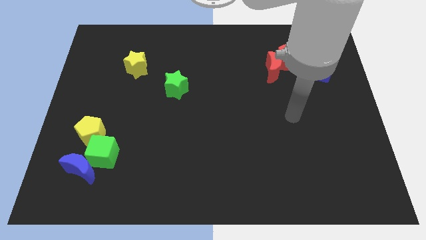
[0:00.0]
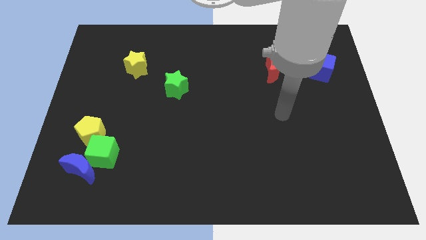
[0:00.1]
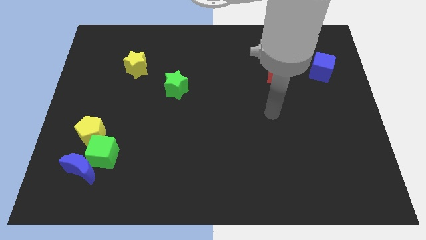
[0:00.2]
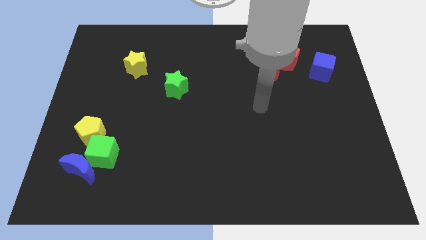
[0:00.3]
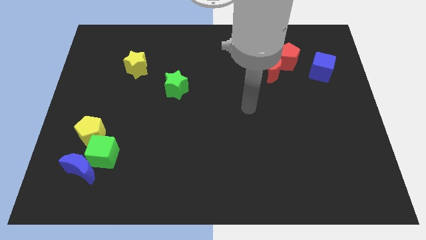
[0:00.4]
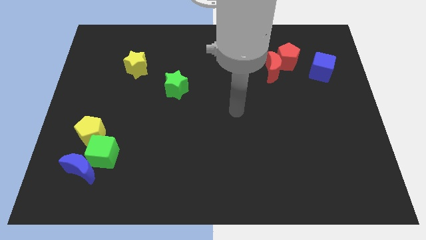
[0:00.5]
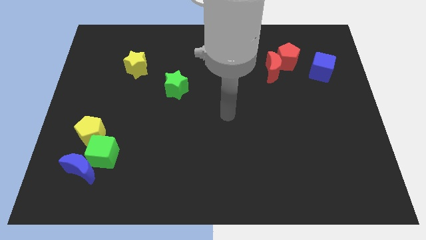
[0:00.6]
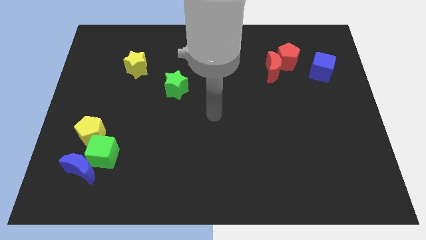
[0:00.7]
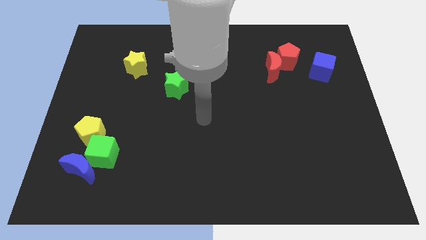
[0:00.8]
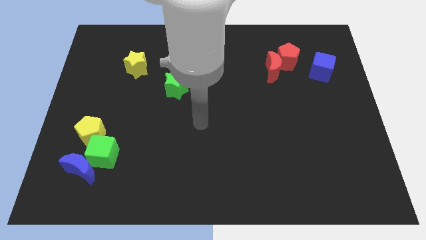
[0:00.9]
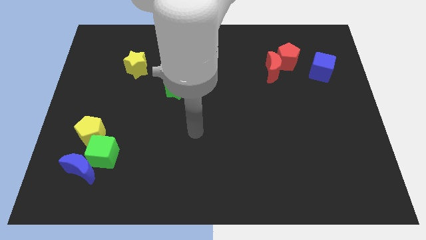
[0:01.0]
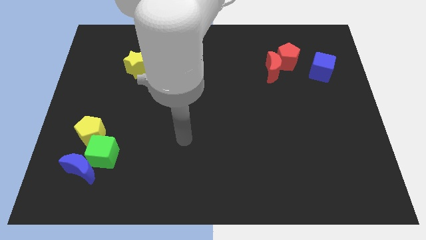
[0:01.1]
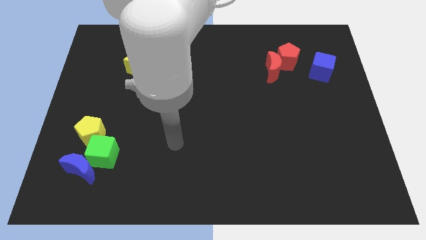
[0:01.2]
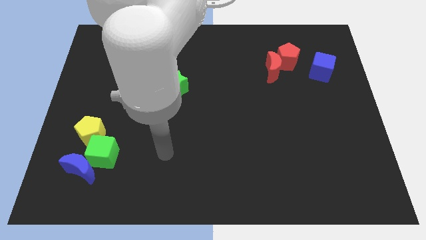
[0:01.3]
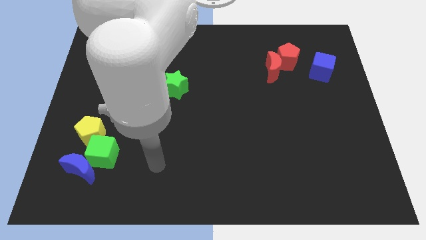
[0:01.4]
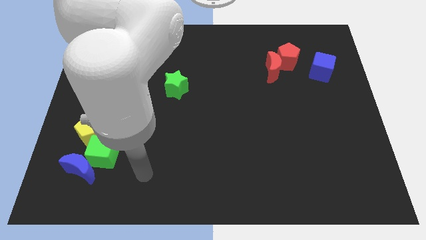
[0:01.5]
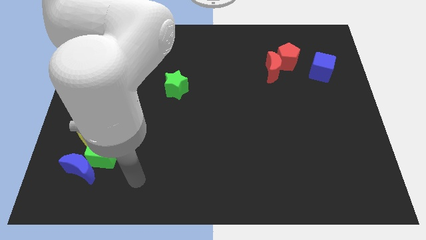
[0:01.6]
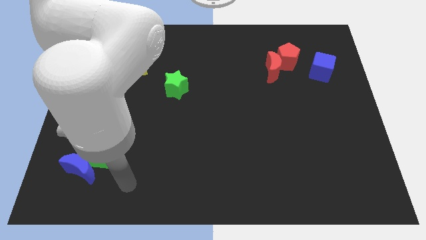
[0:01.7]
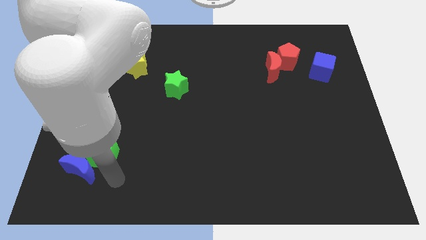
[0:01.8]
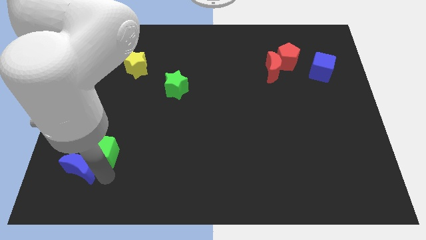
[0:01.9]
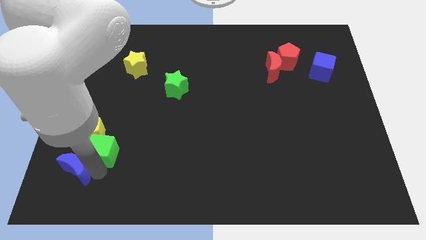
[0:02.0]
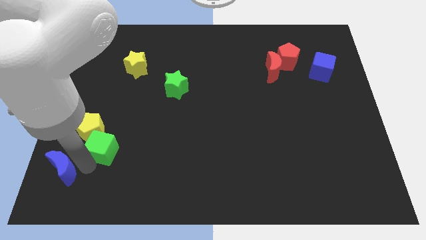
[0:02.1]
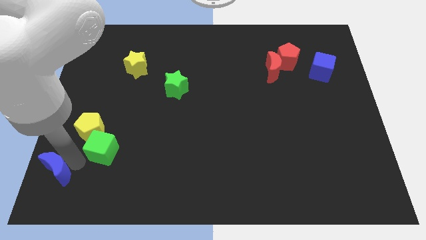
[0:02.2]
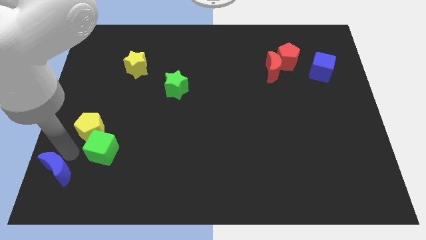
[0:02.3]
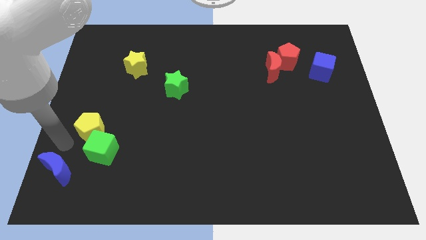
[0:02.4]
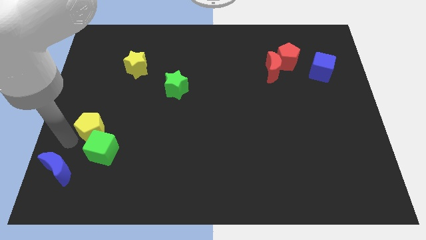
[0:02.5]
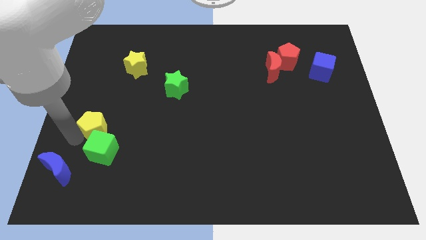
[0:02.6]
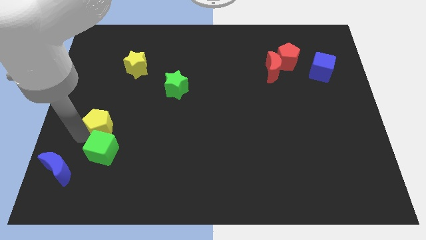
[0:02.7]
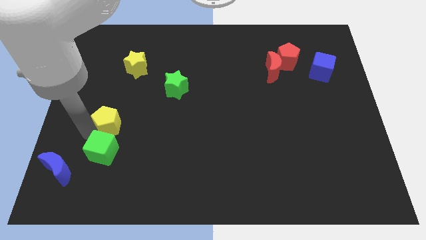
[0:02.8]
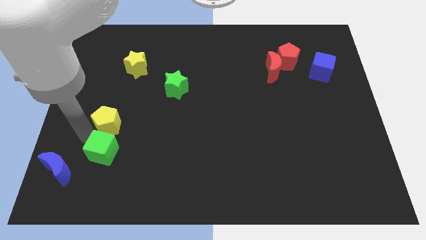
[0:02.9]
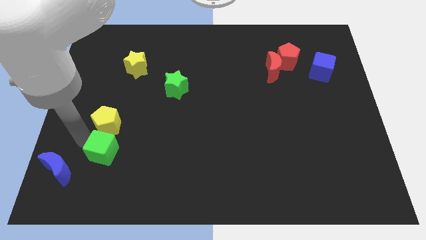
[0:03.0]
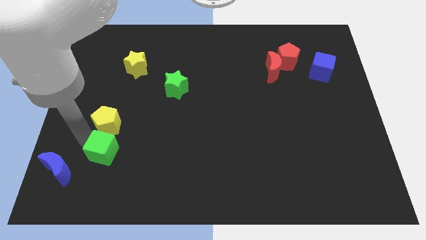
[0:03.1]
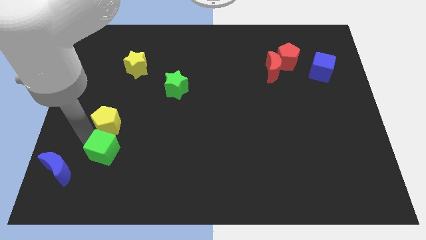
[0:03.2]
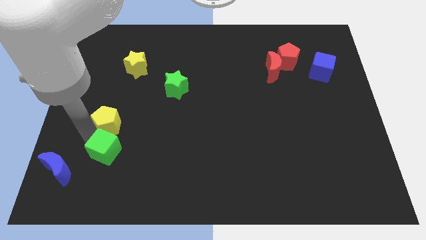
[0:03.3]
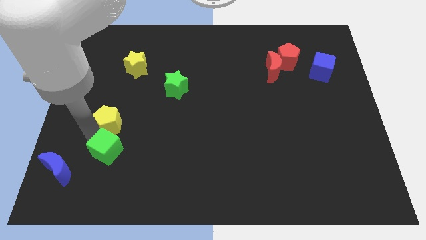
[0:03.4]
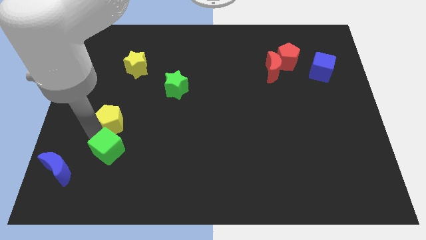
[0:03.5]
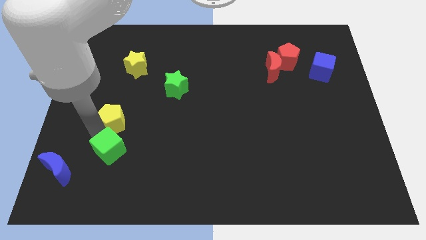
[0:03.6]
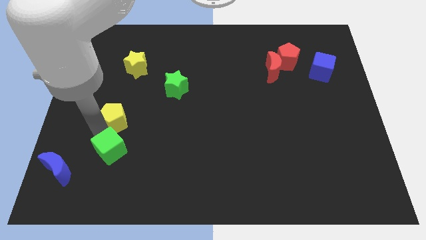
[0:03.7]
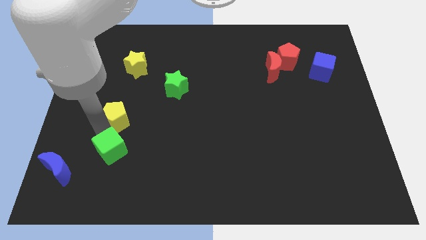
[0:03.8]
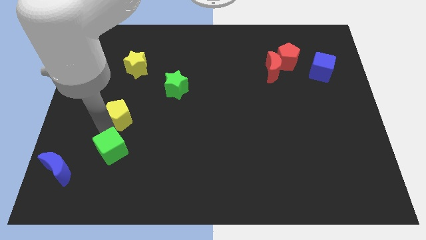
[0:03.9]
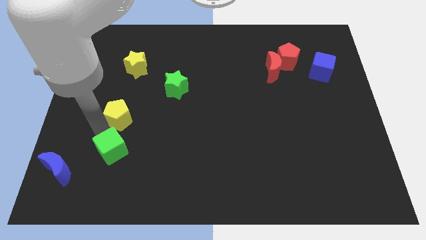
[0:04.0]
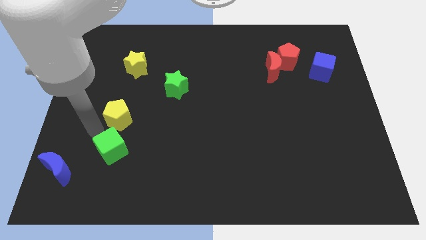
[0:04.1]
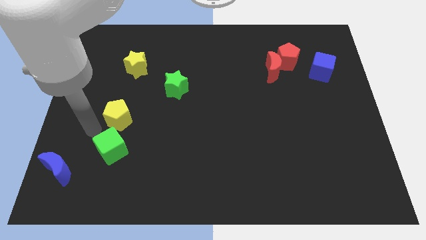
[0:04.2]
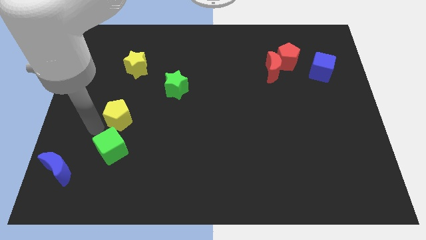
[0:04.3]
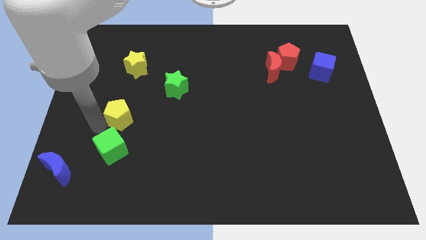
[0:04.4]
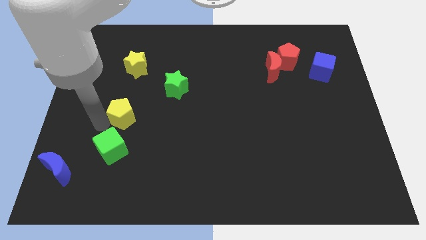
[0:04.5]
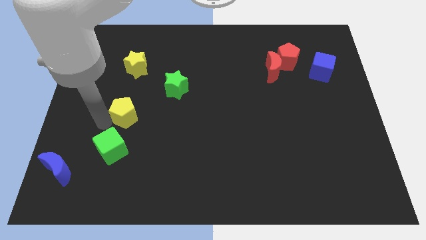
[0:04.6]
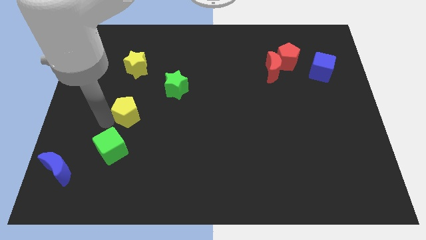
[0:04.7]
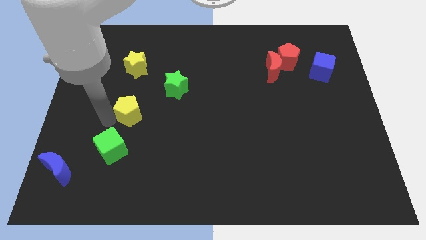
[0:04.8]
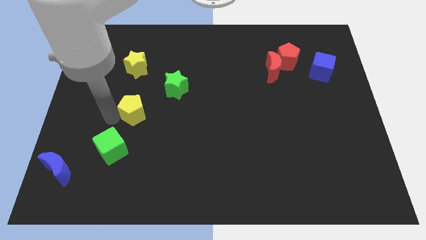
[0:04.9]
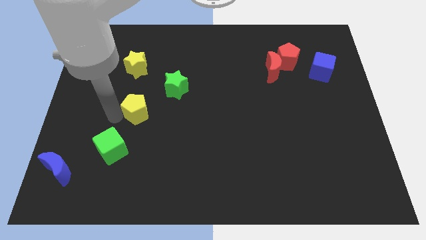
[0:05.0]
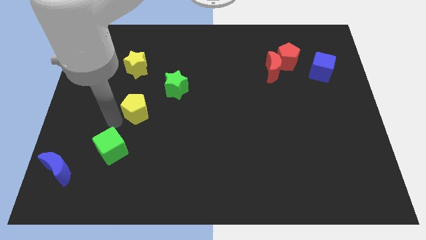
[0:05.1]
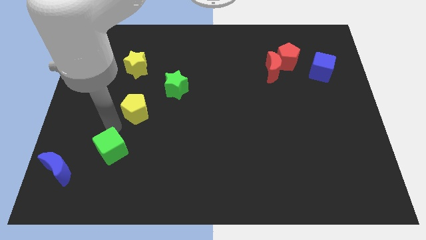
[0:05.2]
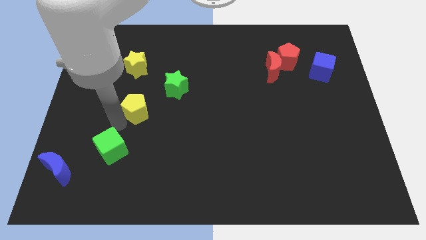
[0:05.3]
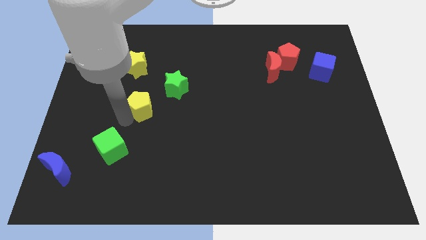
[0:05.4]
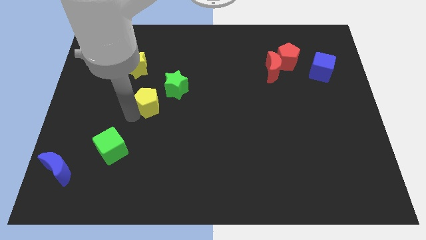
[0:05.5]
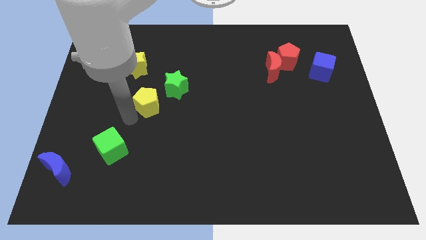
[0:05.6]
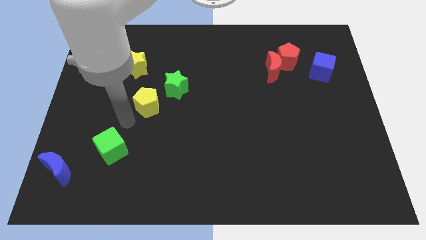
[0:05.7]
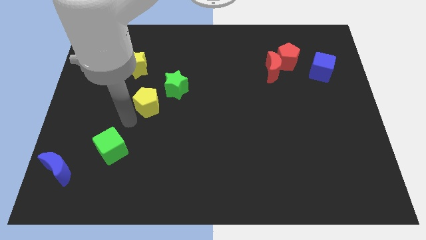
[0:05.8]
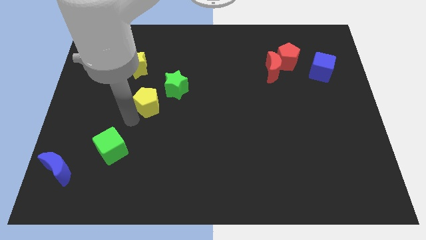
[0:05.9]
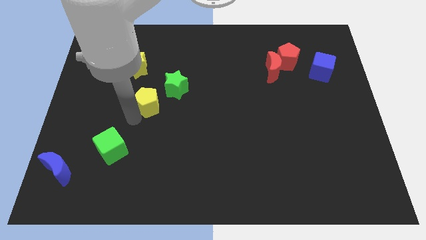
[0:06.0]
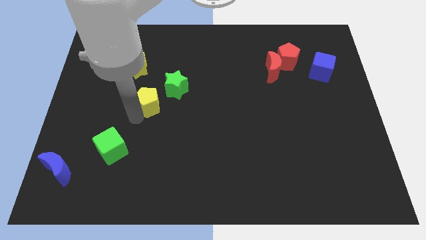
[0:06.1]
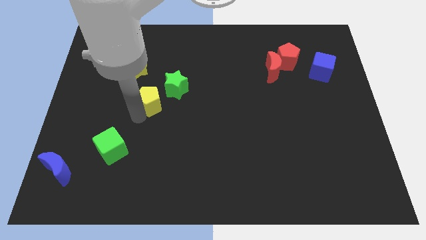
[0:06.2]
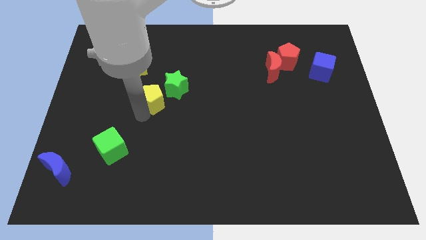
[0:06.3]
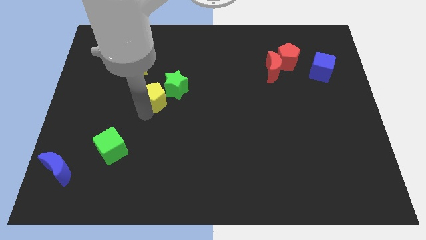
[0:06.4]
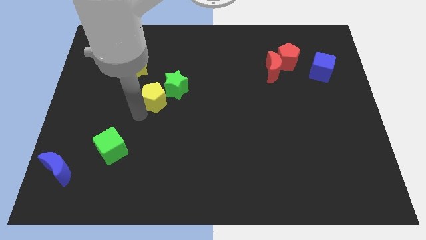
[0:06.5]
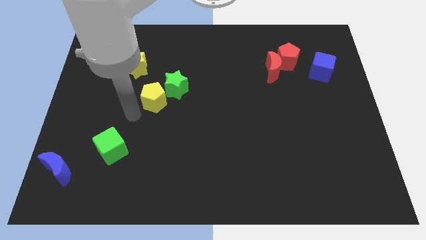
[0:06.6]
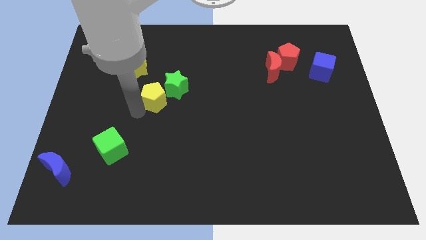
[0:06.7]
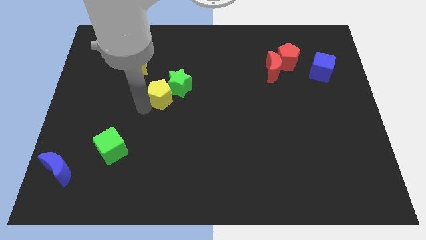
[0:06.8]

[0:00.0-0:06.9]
slide the yellow pentagon next to the green star
